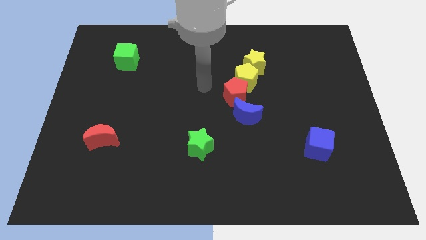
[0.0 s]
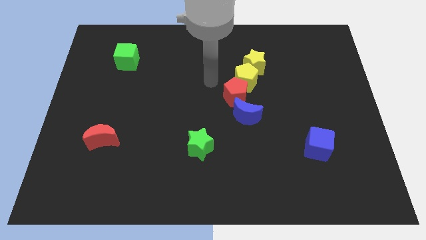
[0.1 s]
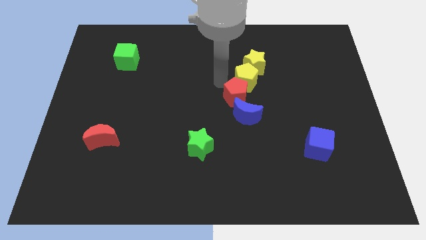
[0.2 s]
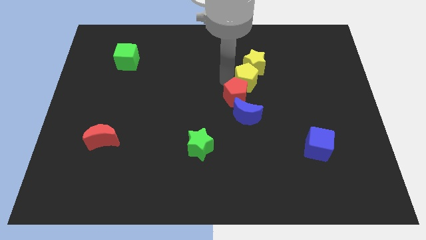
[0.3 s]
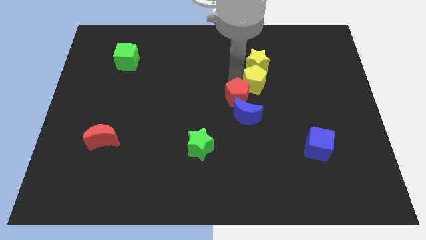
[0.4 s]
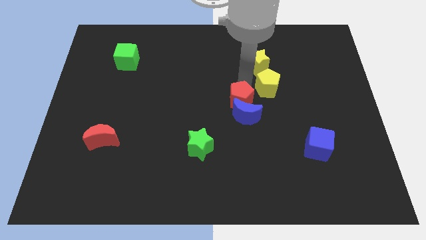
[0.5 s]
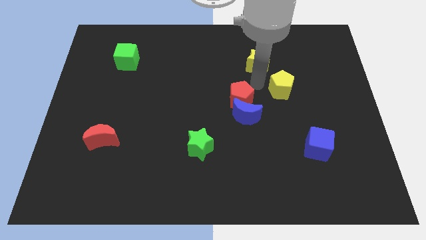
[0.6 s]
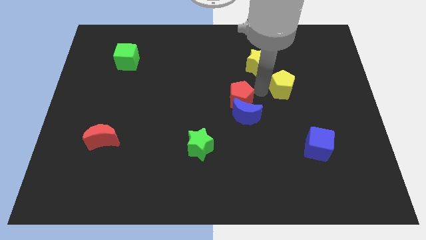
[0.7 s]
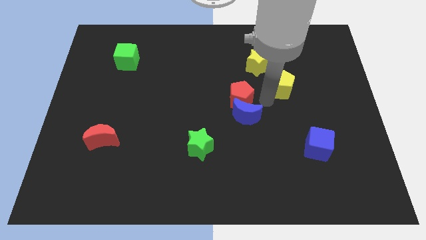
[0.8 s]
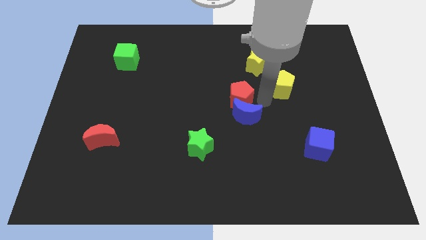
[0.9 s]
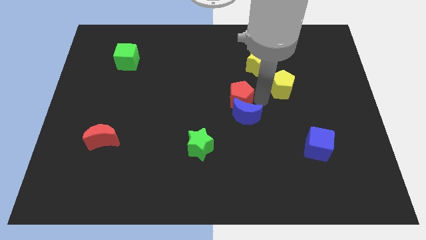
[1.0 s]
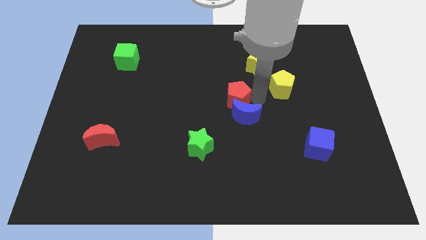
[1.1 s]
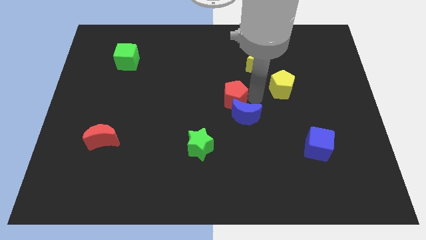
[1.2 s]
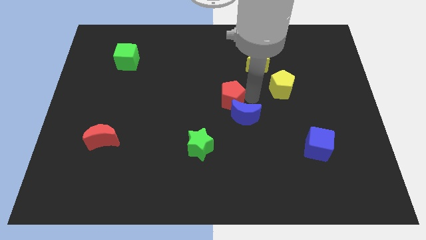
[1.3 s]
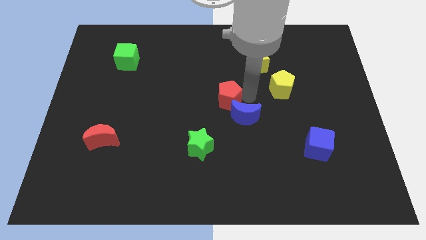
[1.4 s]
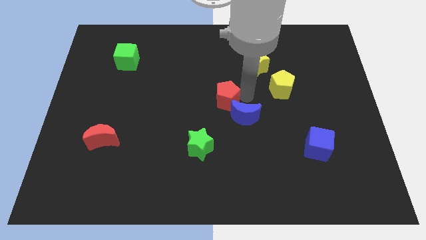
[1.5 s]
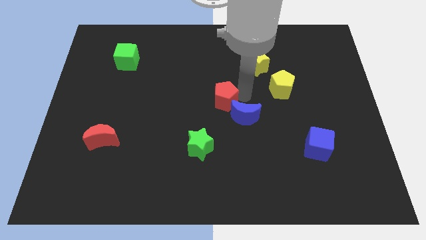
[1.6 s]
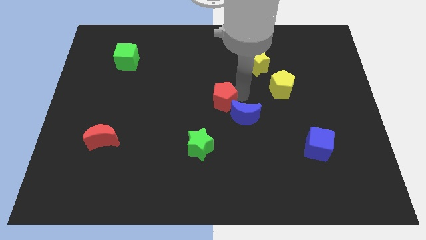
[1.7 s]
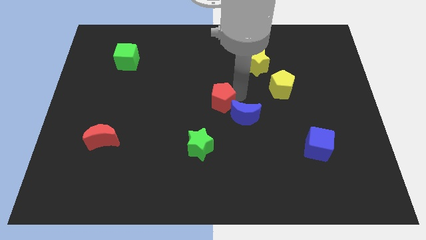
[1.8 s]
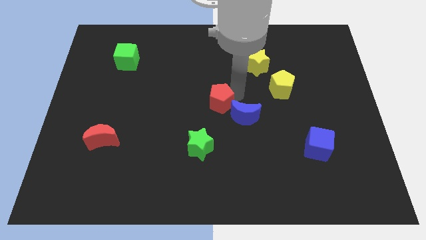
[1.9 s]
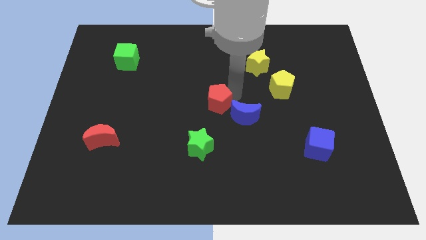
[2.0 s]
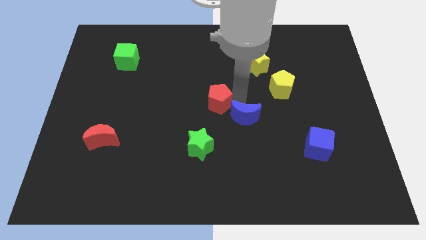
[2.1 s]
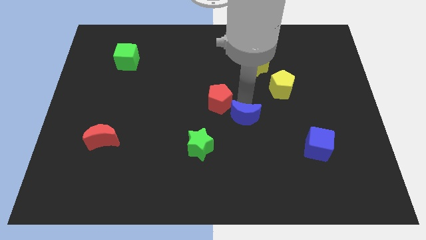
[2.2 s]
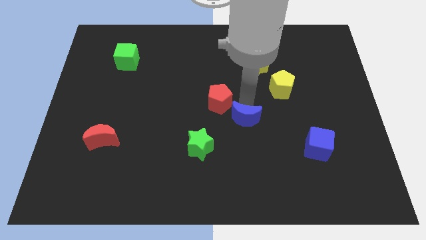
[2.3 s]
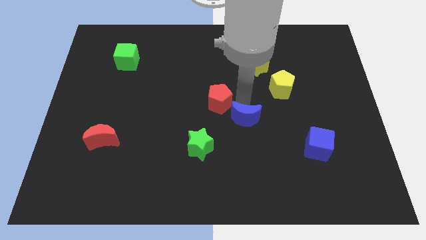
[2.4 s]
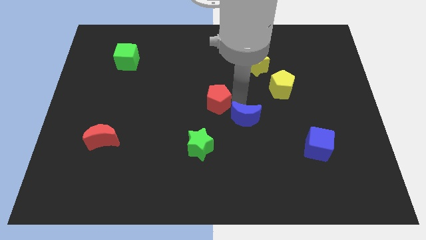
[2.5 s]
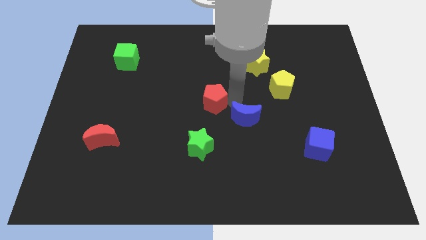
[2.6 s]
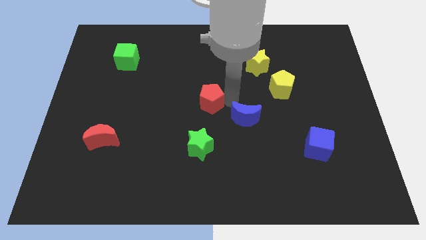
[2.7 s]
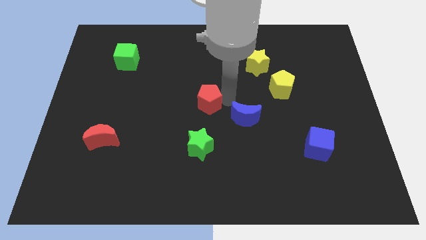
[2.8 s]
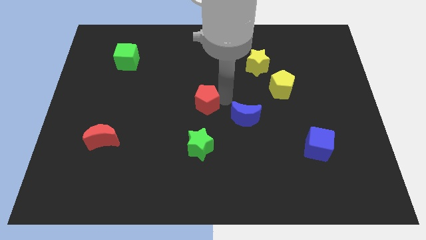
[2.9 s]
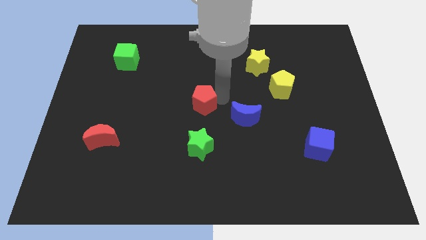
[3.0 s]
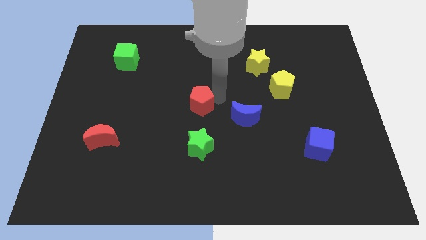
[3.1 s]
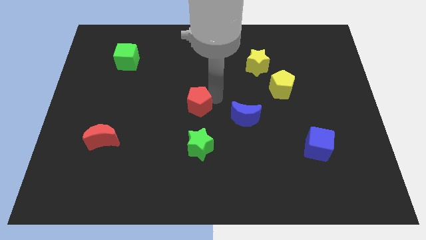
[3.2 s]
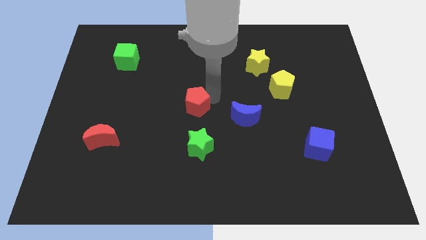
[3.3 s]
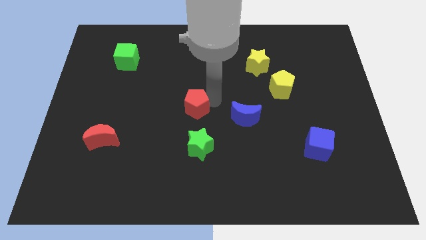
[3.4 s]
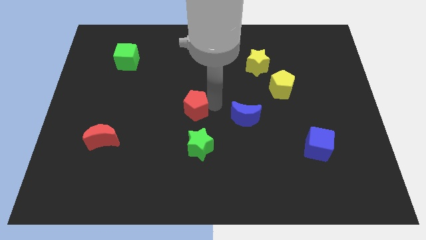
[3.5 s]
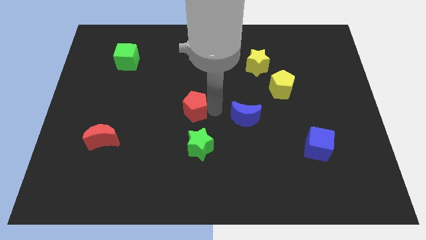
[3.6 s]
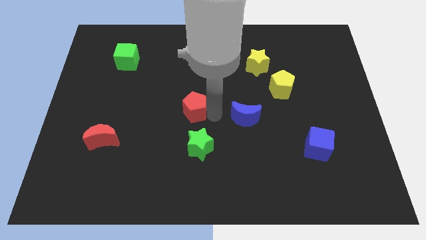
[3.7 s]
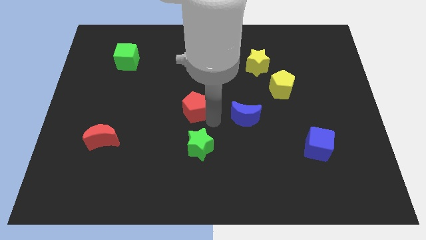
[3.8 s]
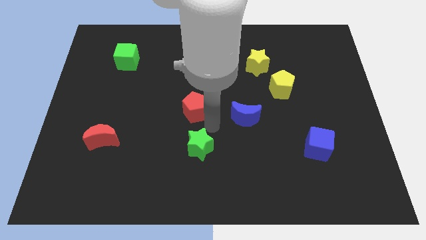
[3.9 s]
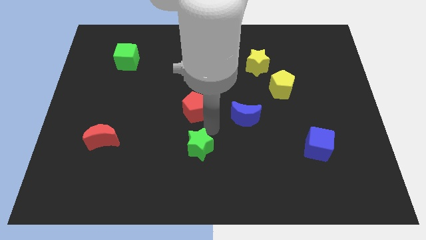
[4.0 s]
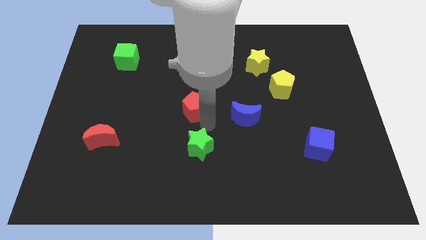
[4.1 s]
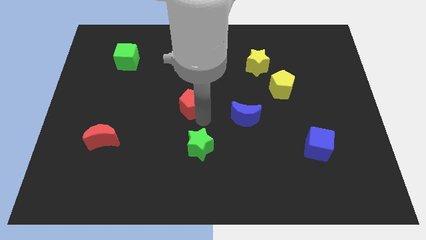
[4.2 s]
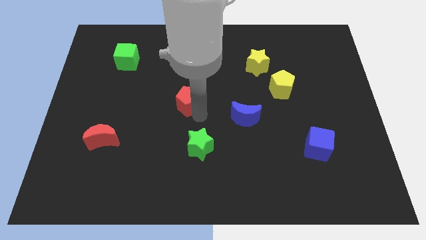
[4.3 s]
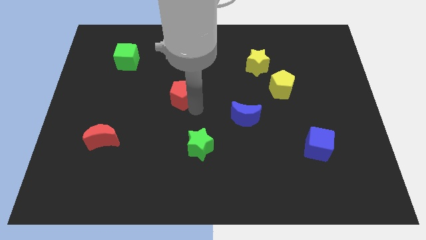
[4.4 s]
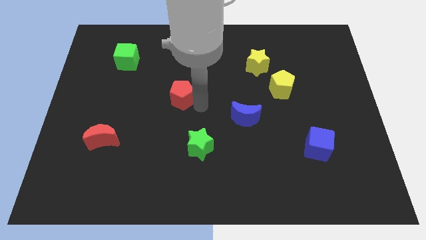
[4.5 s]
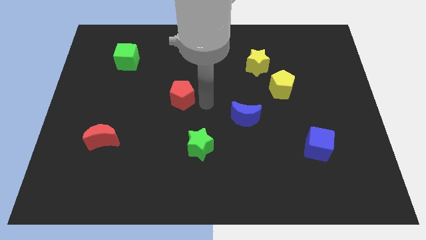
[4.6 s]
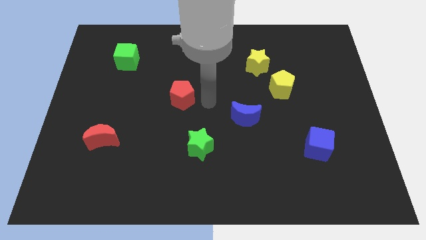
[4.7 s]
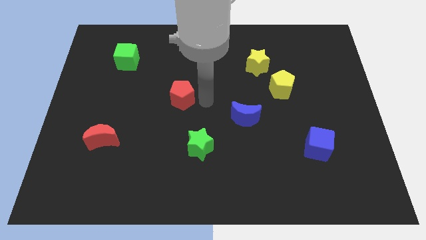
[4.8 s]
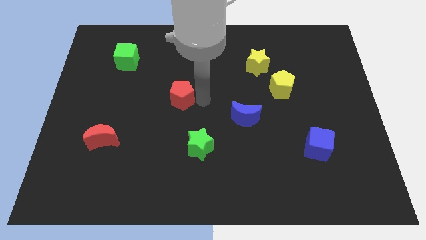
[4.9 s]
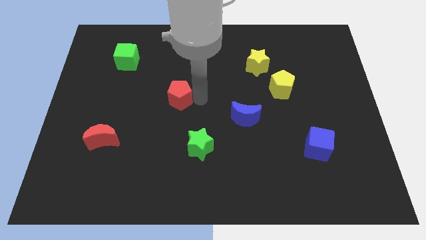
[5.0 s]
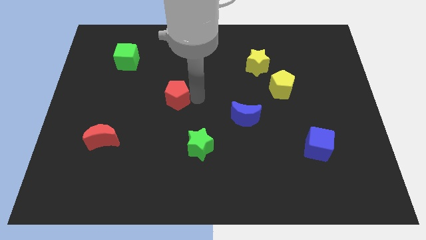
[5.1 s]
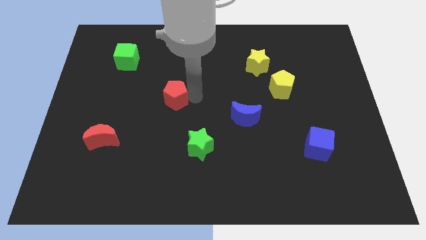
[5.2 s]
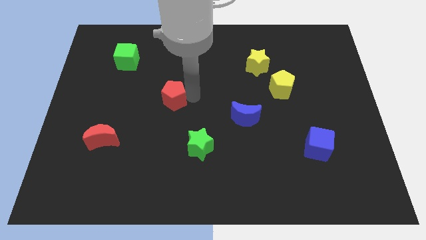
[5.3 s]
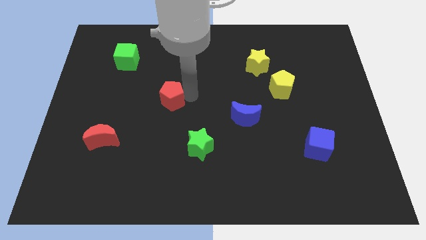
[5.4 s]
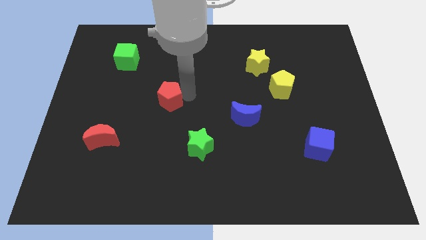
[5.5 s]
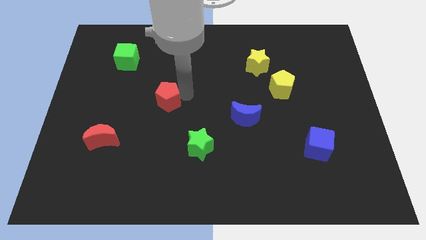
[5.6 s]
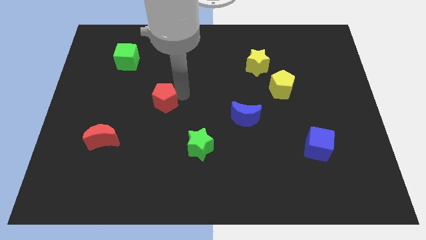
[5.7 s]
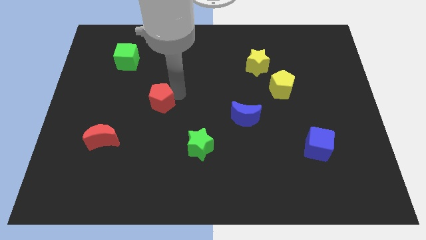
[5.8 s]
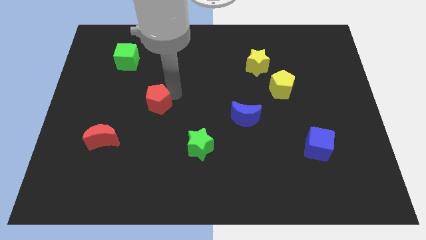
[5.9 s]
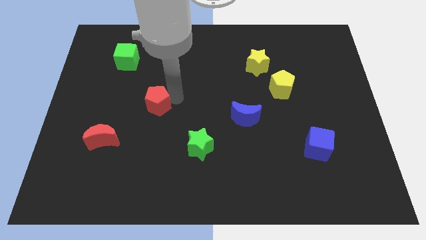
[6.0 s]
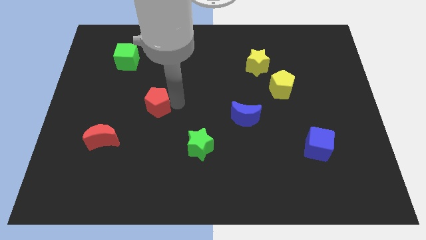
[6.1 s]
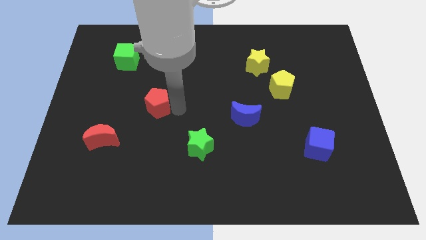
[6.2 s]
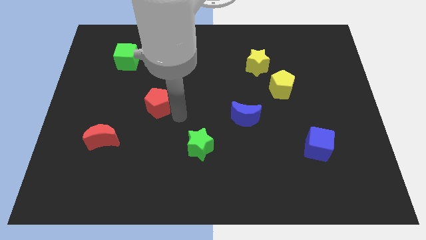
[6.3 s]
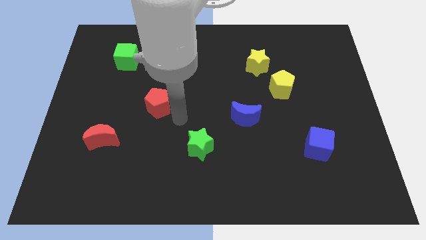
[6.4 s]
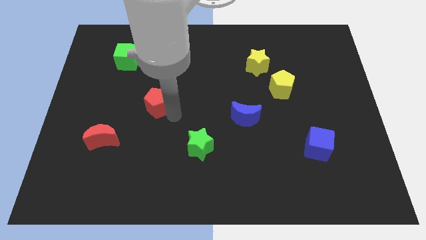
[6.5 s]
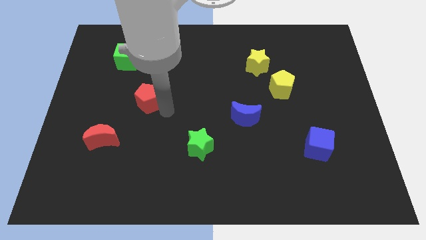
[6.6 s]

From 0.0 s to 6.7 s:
slide the red pentagon to the left

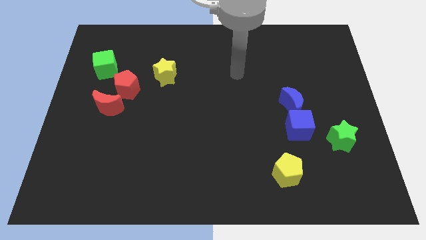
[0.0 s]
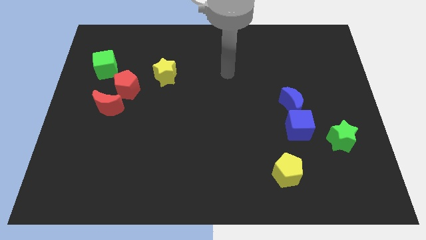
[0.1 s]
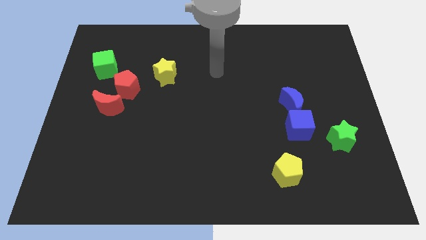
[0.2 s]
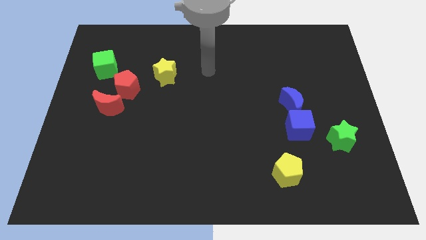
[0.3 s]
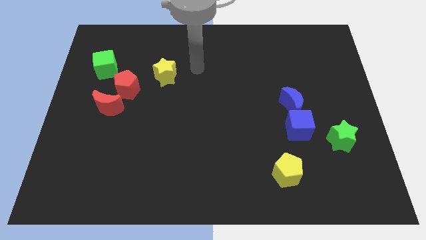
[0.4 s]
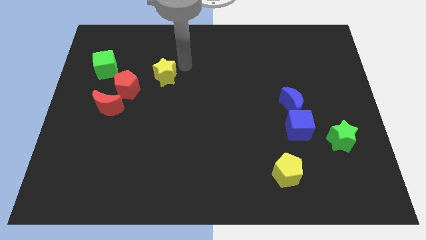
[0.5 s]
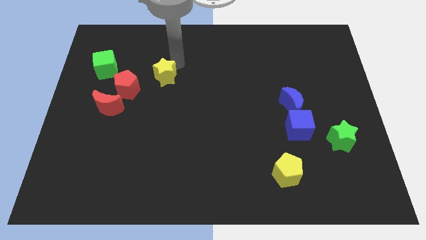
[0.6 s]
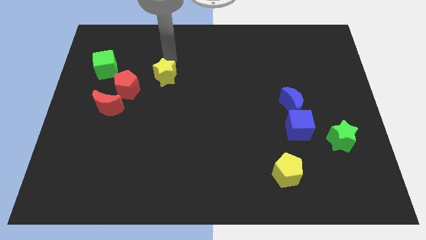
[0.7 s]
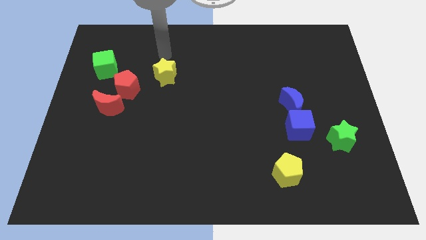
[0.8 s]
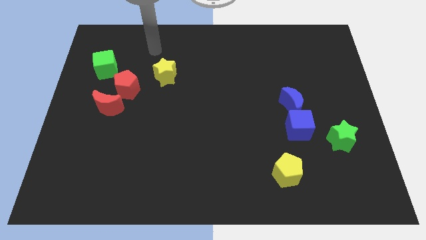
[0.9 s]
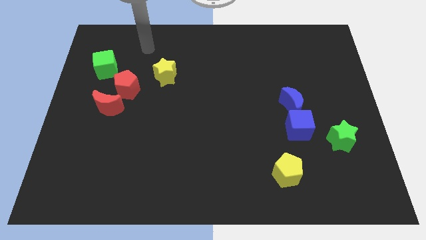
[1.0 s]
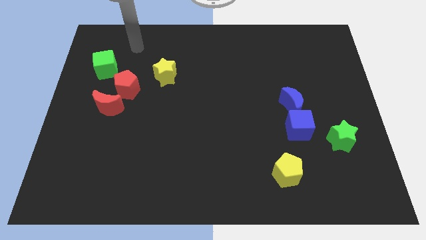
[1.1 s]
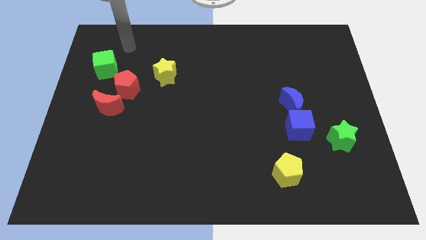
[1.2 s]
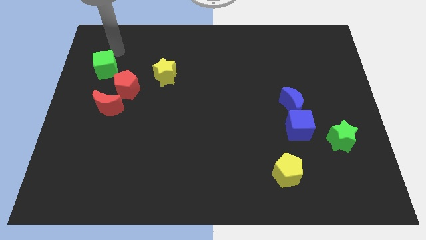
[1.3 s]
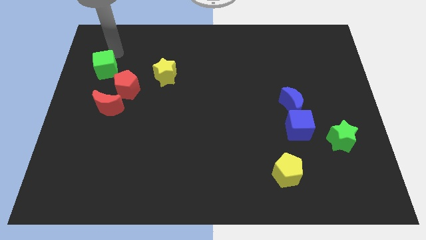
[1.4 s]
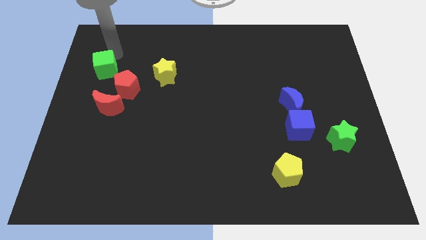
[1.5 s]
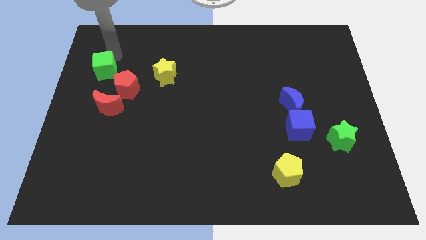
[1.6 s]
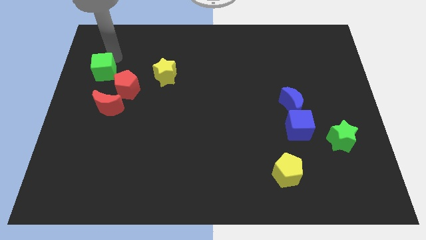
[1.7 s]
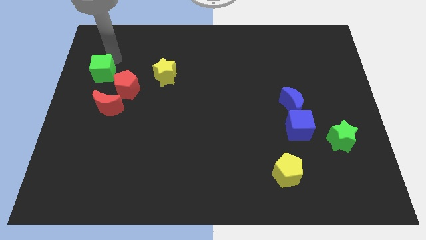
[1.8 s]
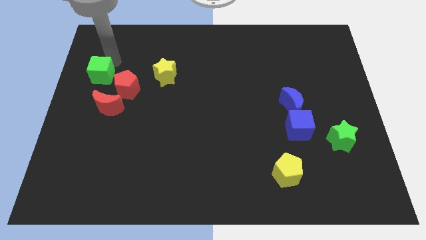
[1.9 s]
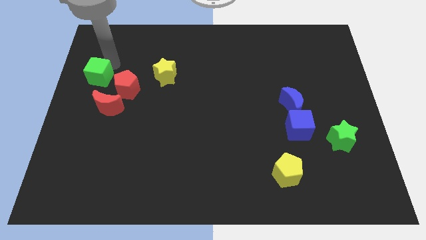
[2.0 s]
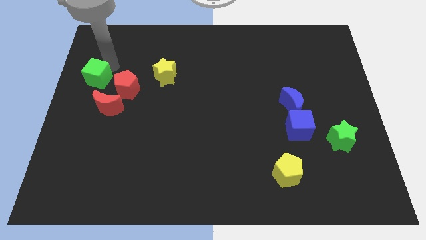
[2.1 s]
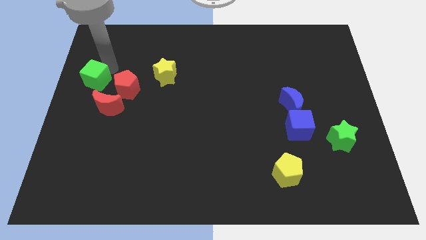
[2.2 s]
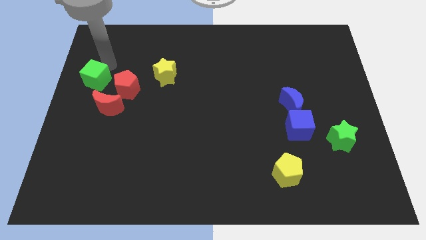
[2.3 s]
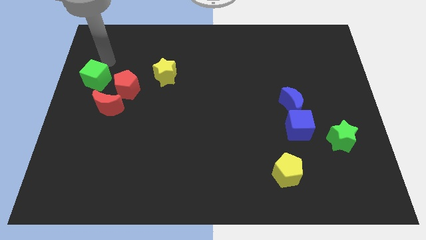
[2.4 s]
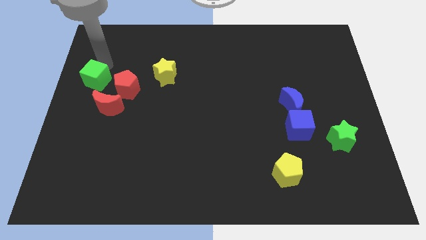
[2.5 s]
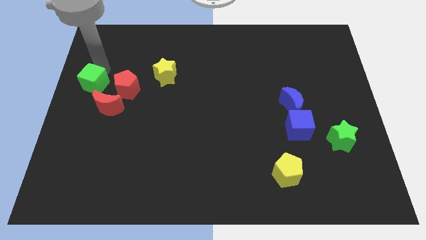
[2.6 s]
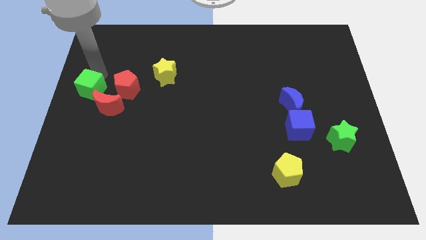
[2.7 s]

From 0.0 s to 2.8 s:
move the green cube downwards a bit
